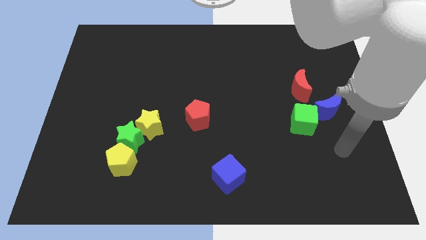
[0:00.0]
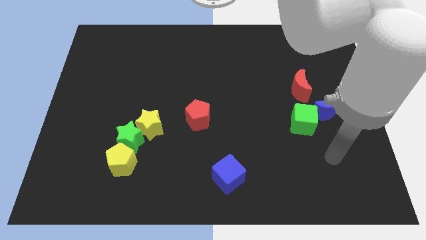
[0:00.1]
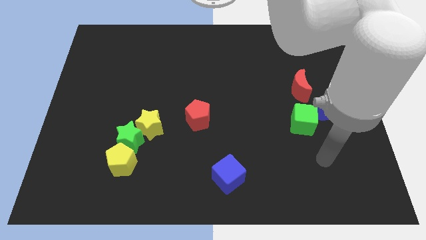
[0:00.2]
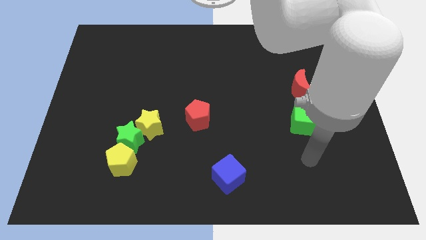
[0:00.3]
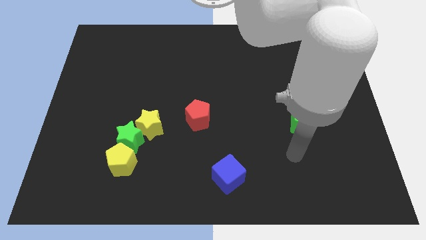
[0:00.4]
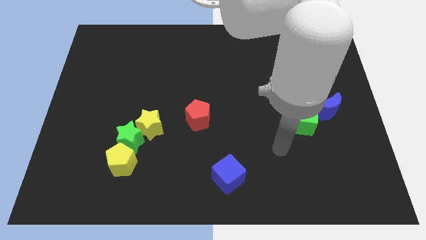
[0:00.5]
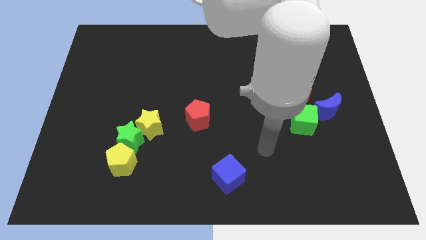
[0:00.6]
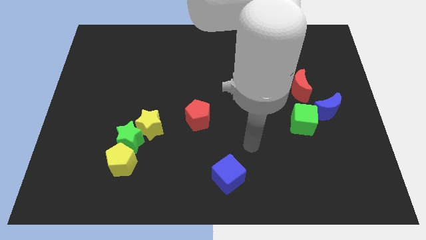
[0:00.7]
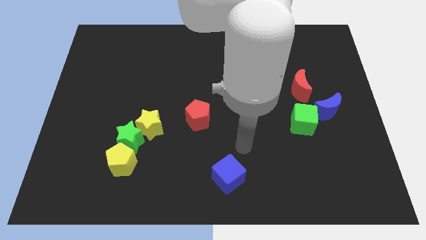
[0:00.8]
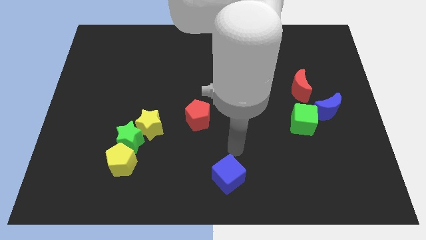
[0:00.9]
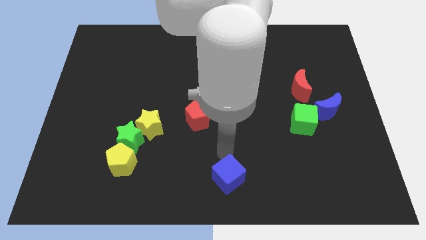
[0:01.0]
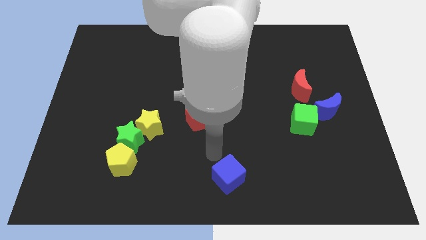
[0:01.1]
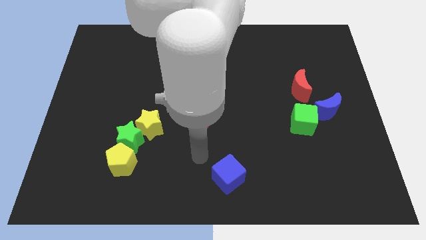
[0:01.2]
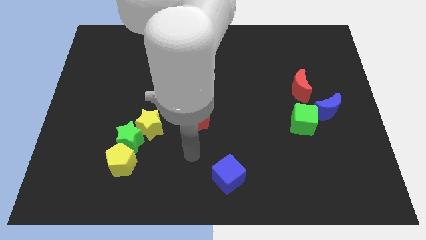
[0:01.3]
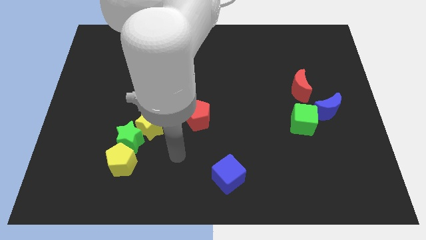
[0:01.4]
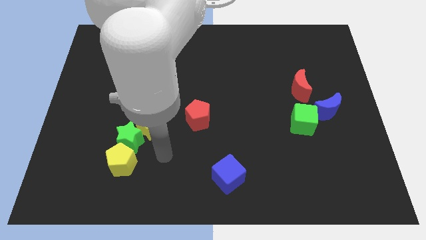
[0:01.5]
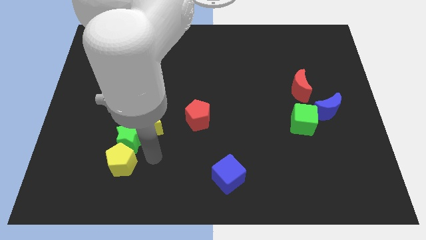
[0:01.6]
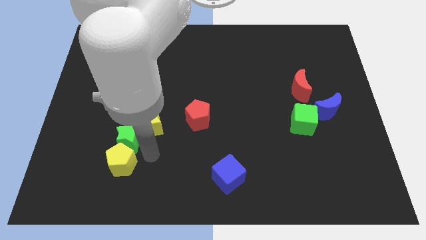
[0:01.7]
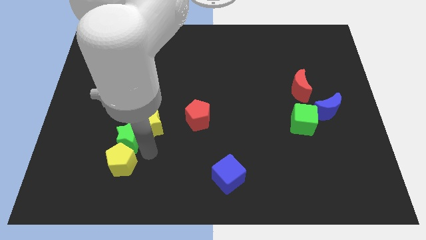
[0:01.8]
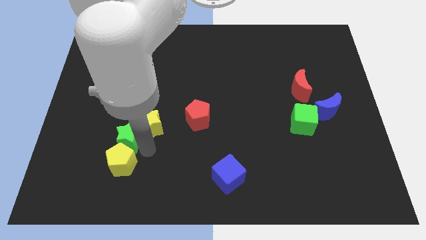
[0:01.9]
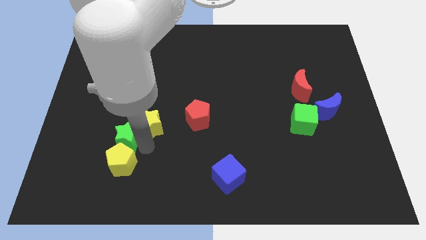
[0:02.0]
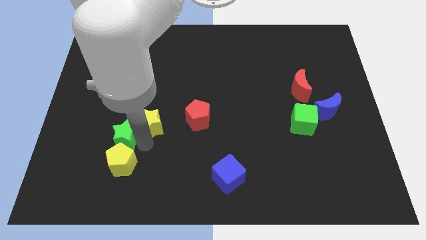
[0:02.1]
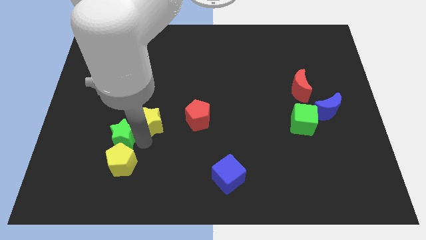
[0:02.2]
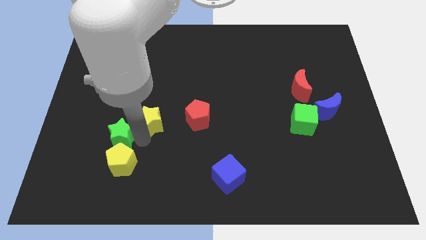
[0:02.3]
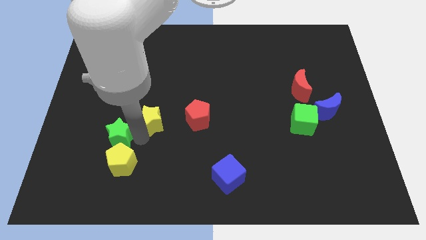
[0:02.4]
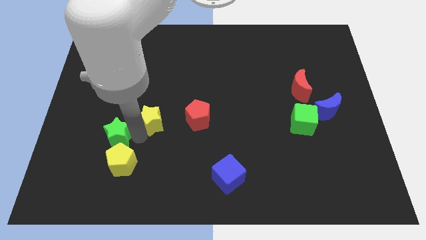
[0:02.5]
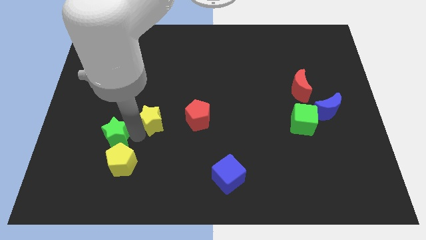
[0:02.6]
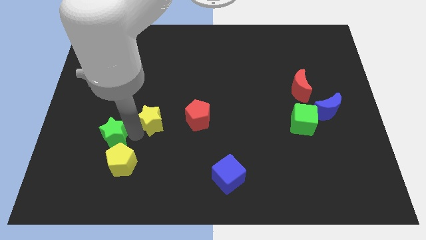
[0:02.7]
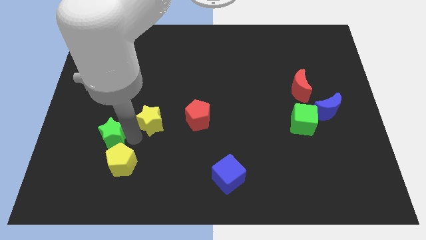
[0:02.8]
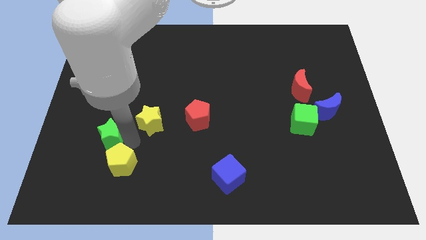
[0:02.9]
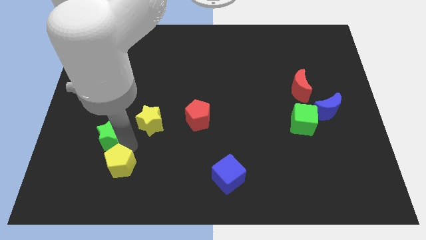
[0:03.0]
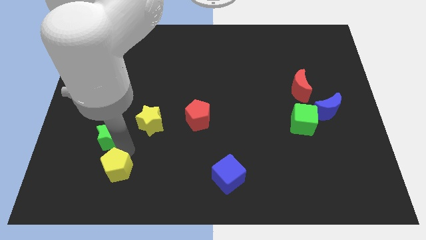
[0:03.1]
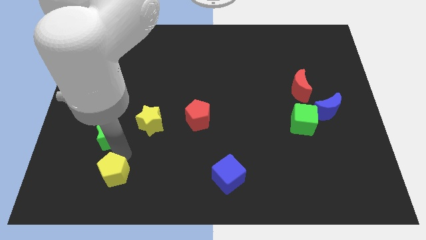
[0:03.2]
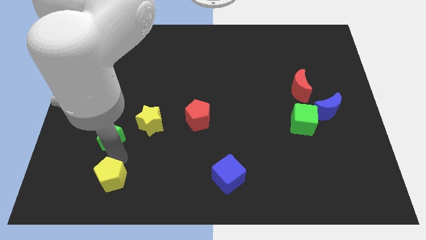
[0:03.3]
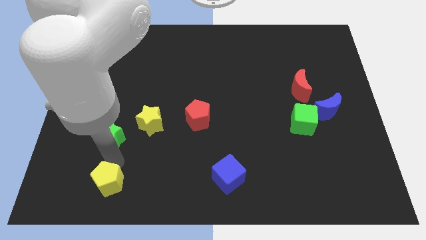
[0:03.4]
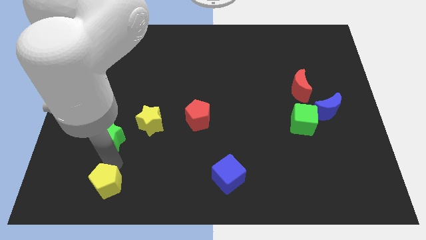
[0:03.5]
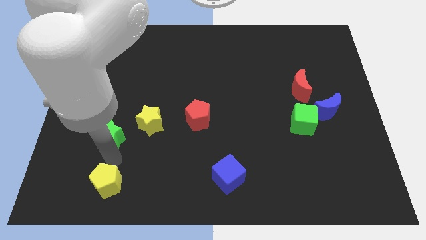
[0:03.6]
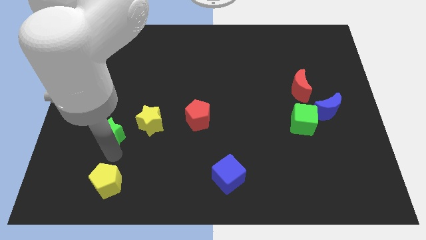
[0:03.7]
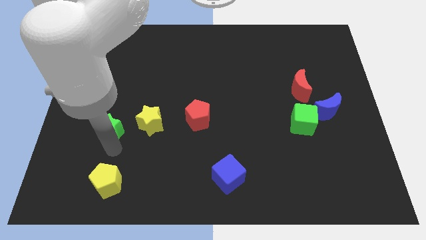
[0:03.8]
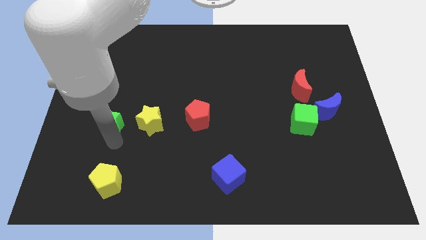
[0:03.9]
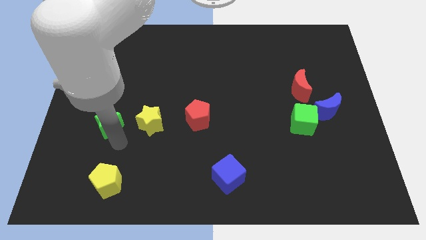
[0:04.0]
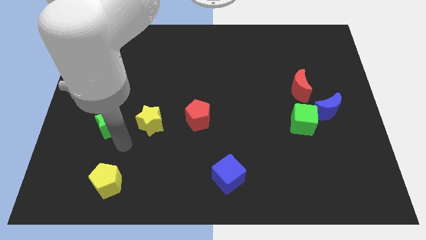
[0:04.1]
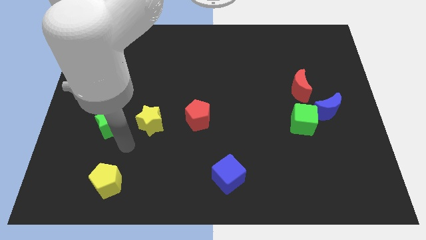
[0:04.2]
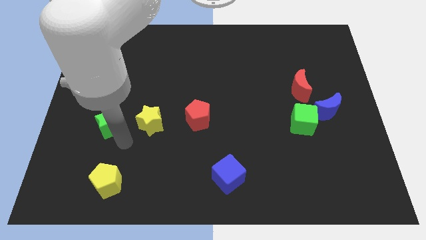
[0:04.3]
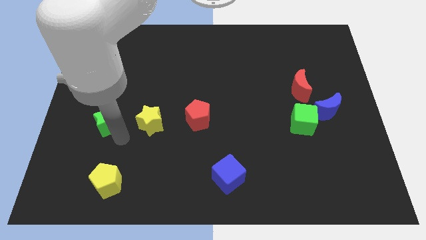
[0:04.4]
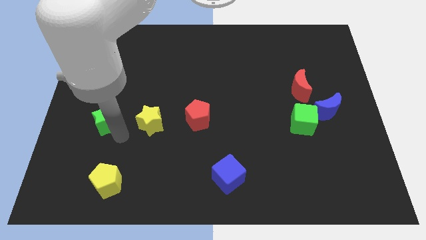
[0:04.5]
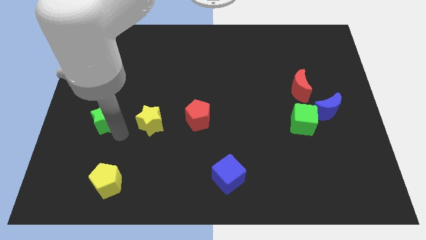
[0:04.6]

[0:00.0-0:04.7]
separate the green star from the yellow star and yellow pentagon

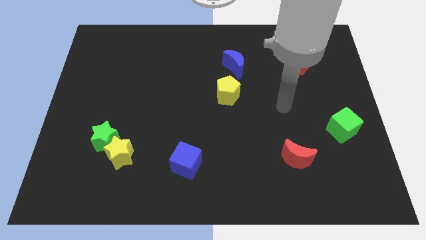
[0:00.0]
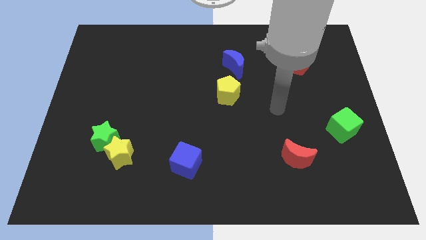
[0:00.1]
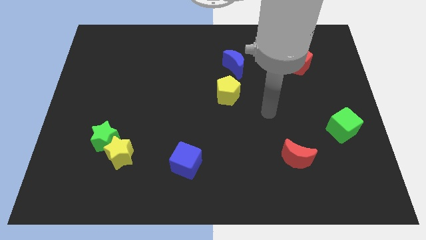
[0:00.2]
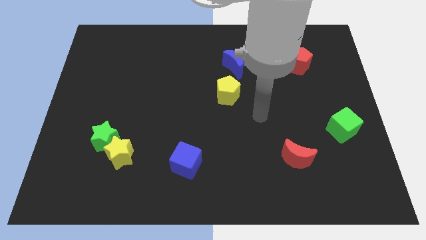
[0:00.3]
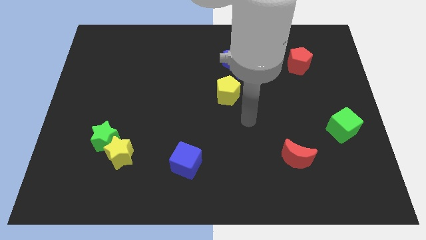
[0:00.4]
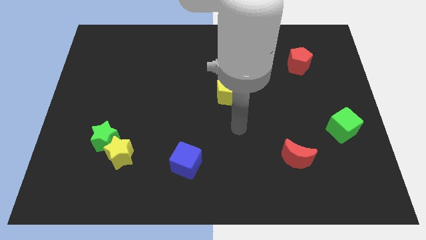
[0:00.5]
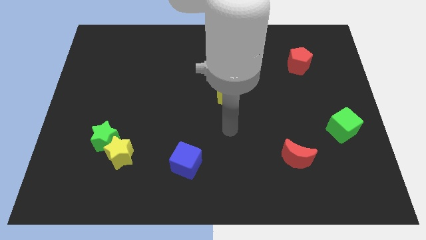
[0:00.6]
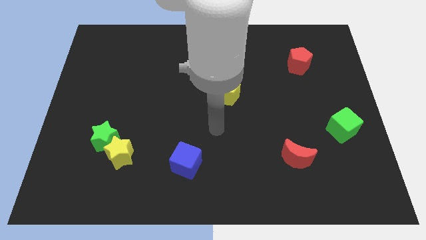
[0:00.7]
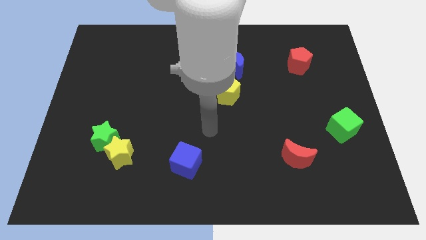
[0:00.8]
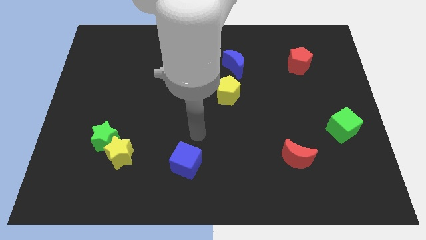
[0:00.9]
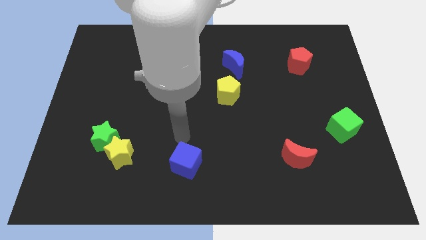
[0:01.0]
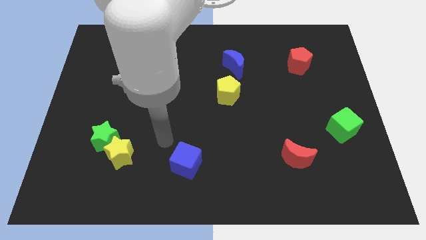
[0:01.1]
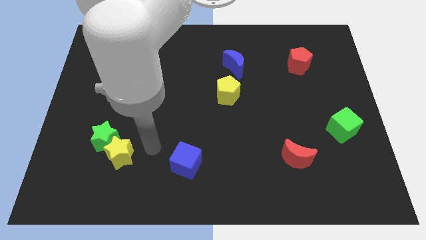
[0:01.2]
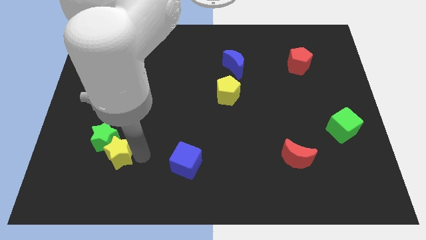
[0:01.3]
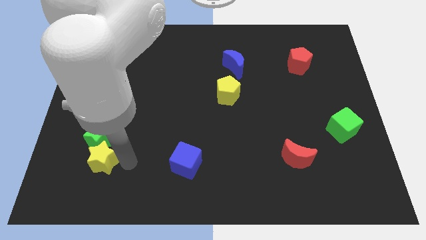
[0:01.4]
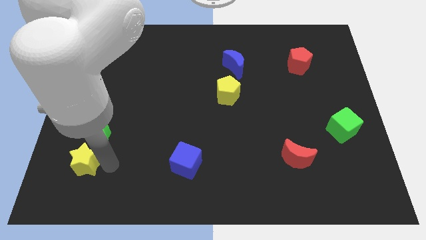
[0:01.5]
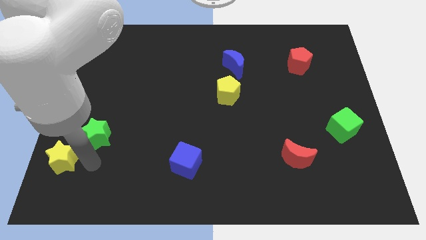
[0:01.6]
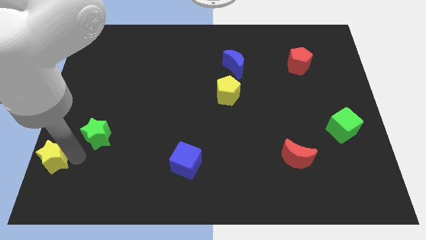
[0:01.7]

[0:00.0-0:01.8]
separate the green star from the yellow star

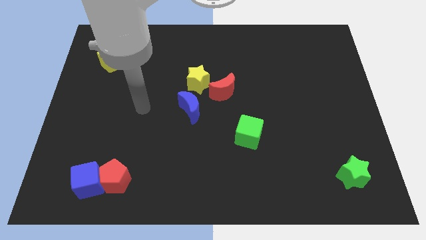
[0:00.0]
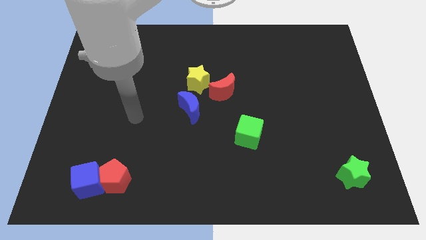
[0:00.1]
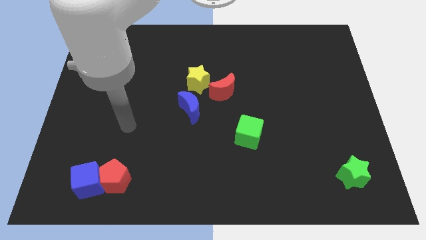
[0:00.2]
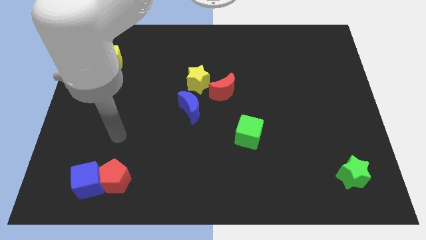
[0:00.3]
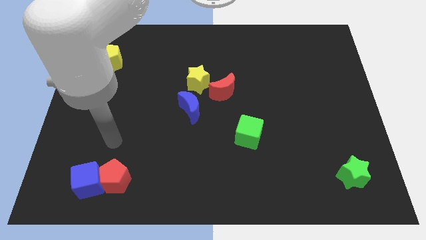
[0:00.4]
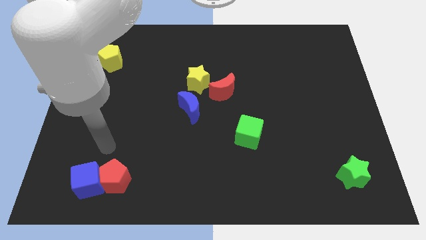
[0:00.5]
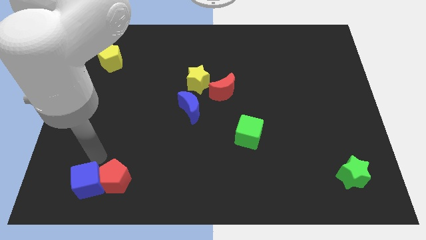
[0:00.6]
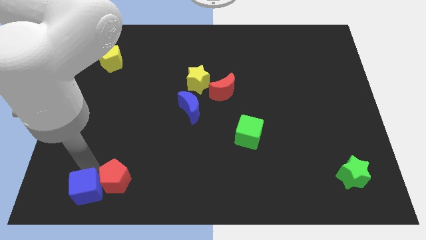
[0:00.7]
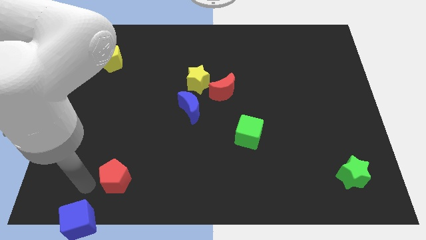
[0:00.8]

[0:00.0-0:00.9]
move the red pentagon away from the blue cube

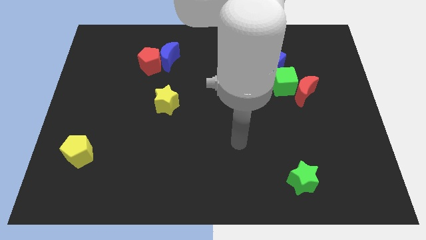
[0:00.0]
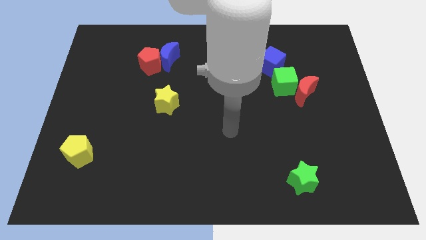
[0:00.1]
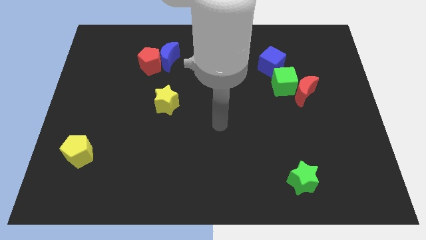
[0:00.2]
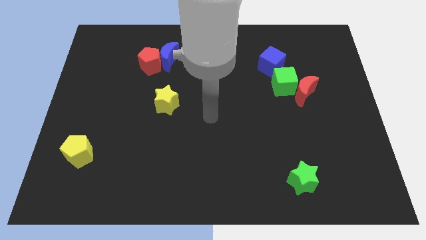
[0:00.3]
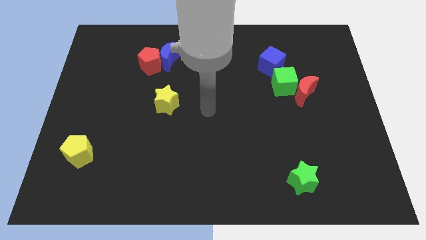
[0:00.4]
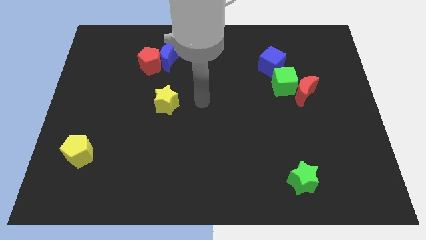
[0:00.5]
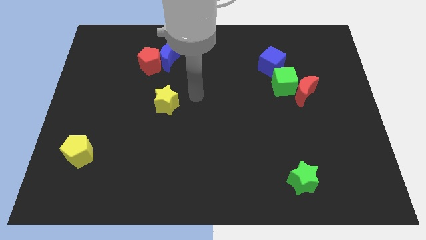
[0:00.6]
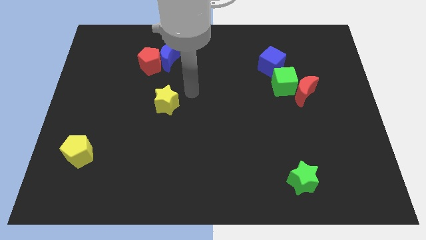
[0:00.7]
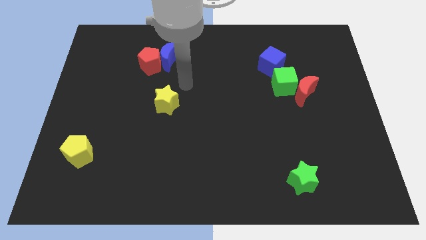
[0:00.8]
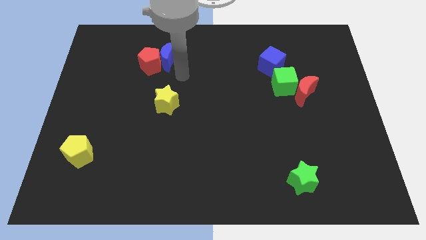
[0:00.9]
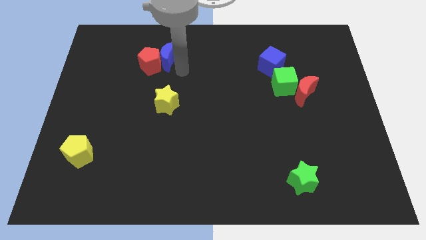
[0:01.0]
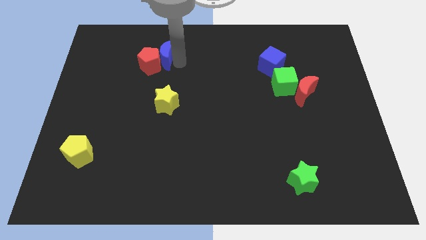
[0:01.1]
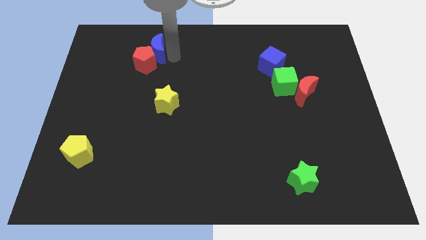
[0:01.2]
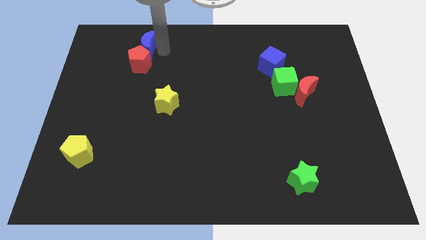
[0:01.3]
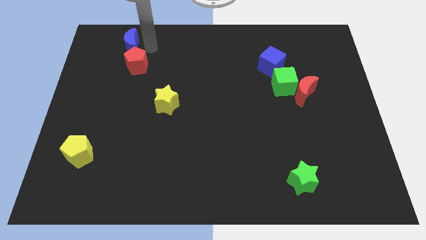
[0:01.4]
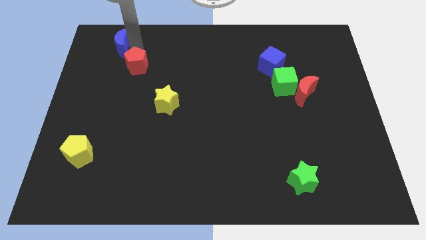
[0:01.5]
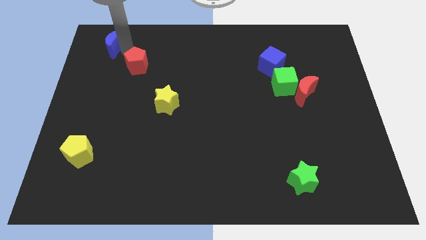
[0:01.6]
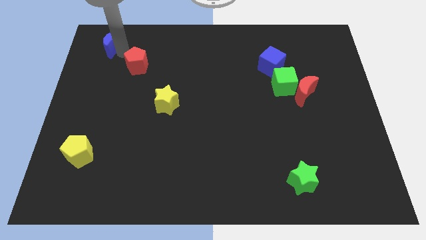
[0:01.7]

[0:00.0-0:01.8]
pull the red pentagon apart from the blue moon

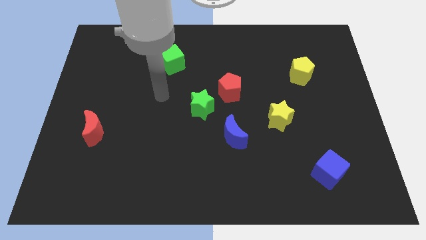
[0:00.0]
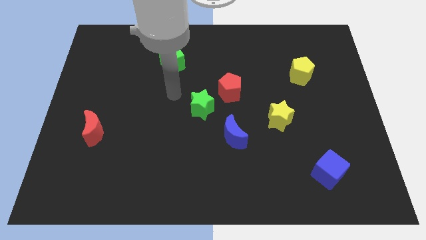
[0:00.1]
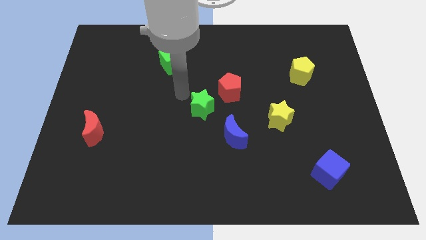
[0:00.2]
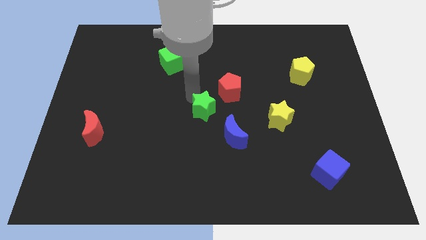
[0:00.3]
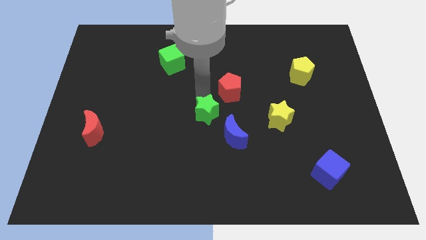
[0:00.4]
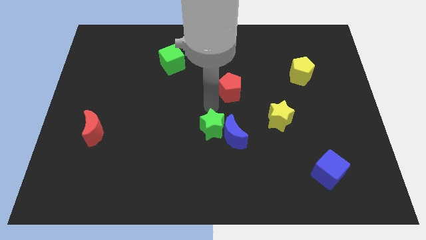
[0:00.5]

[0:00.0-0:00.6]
pull the red pentagon apart from the green star
